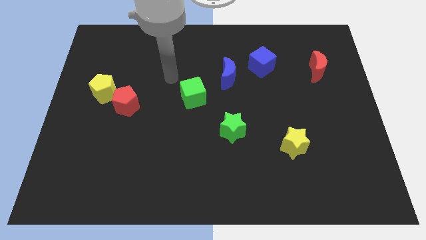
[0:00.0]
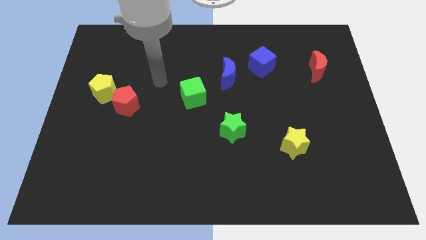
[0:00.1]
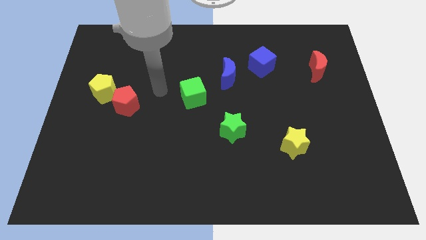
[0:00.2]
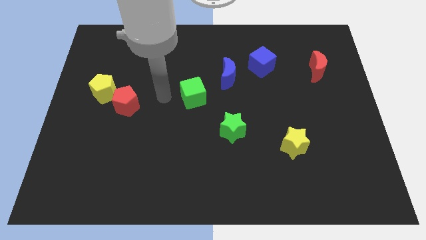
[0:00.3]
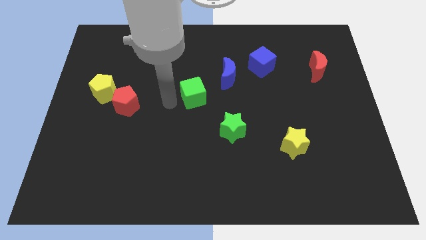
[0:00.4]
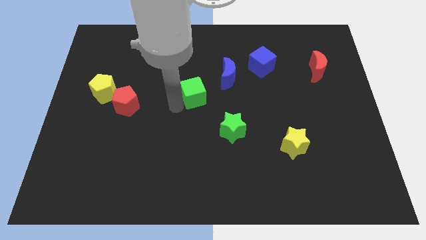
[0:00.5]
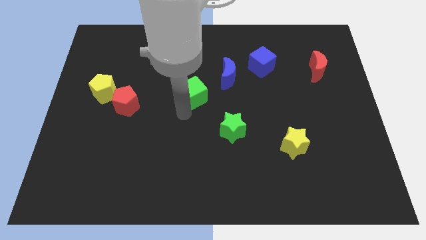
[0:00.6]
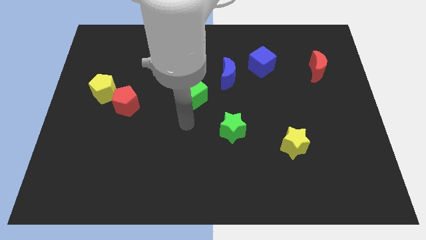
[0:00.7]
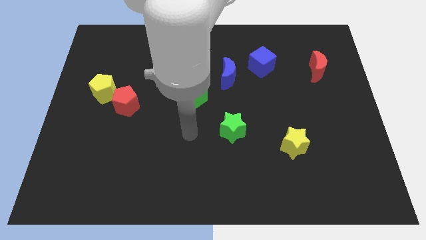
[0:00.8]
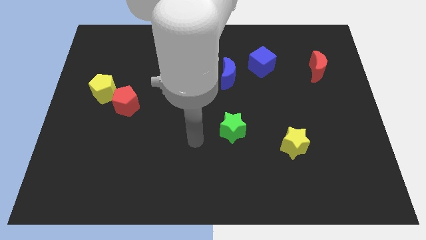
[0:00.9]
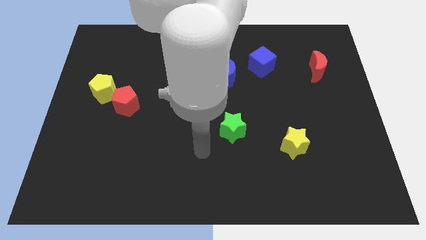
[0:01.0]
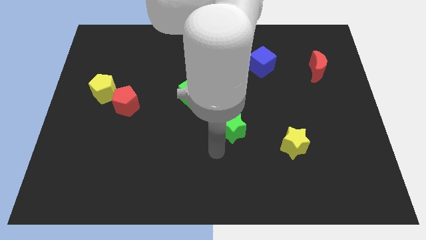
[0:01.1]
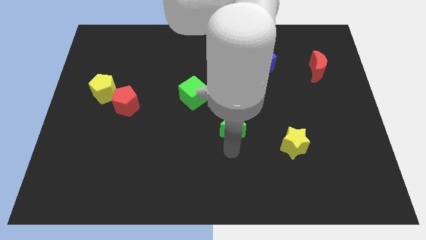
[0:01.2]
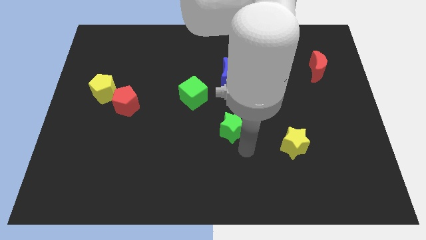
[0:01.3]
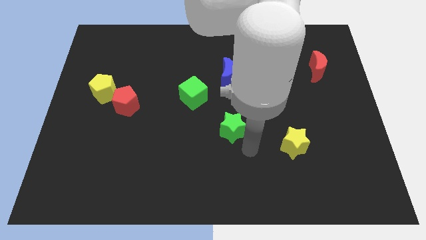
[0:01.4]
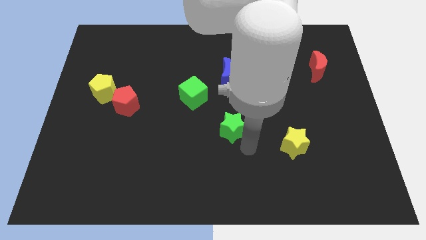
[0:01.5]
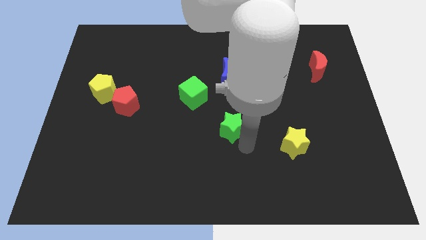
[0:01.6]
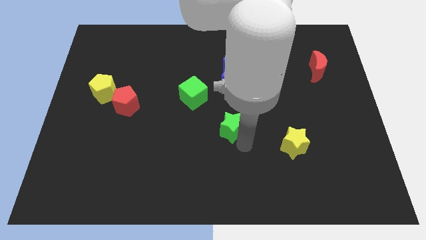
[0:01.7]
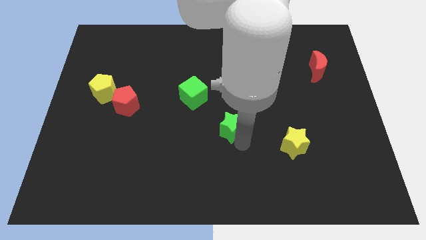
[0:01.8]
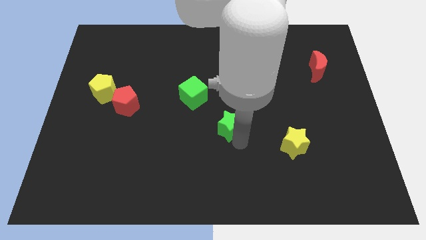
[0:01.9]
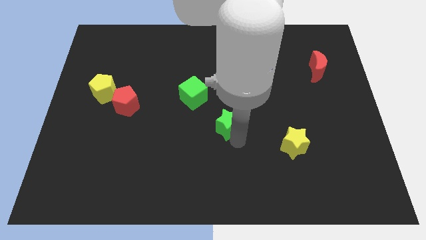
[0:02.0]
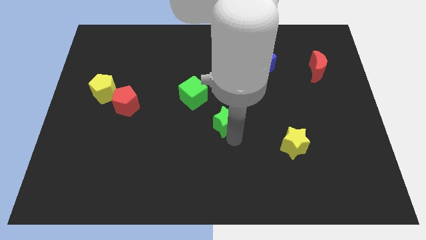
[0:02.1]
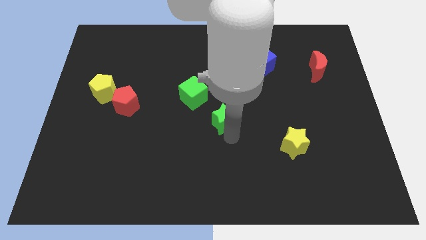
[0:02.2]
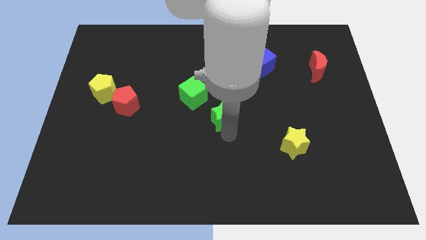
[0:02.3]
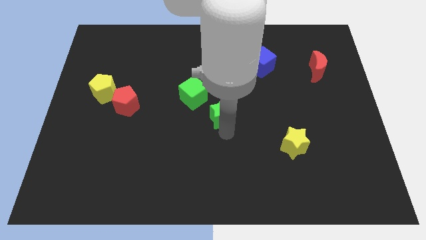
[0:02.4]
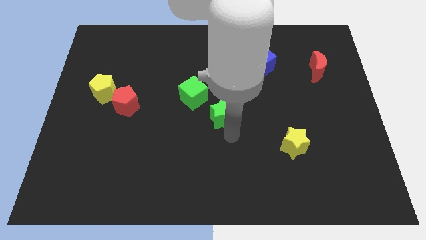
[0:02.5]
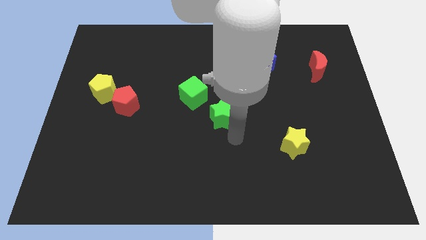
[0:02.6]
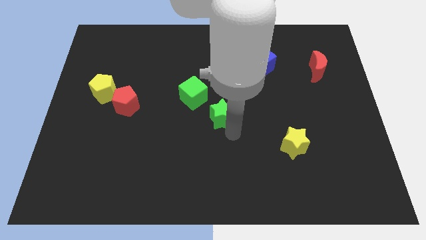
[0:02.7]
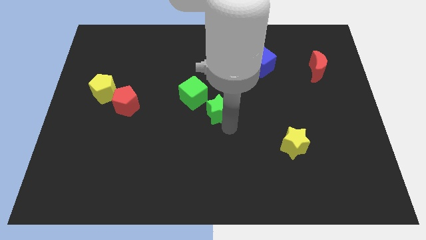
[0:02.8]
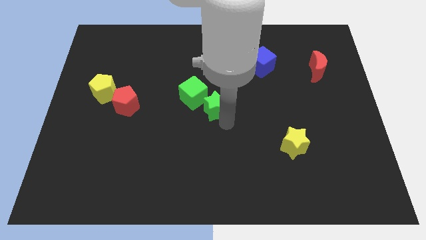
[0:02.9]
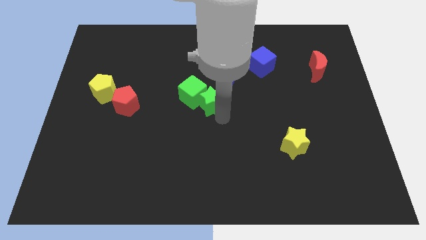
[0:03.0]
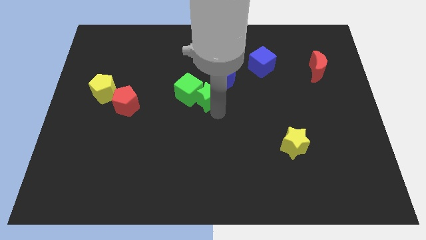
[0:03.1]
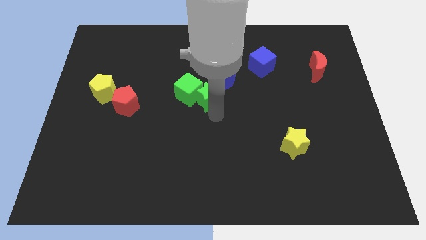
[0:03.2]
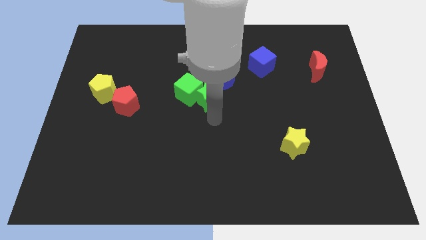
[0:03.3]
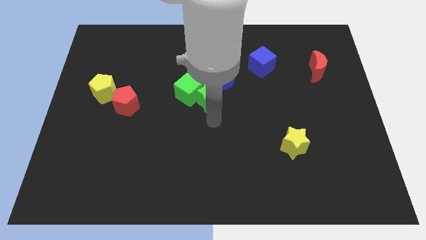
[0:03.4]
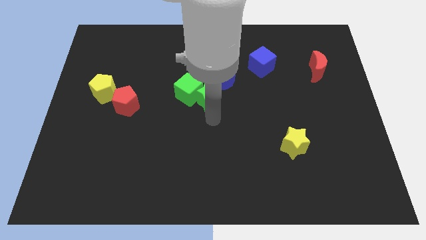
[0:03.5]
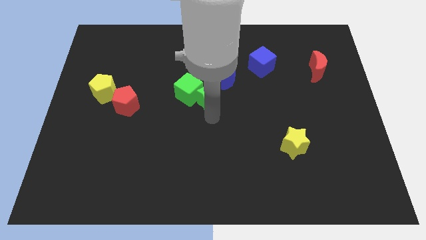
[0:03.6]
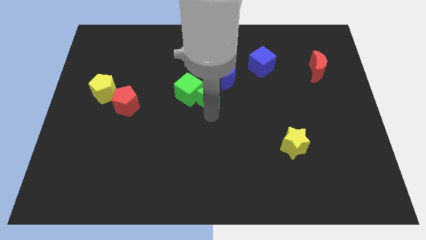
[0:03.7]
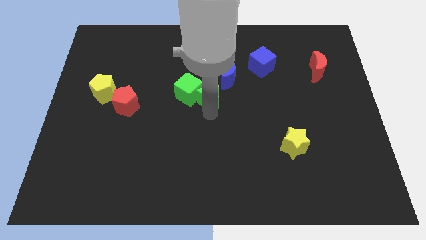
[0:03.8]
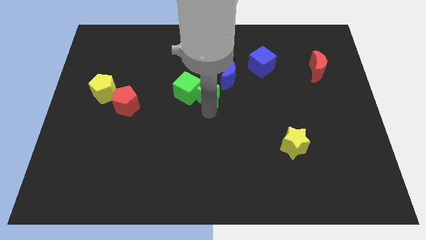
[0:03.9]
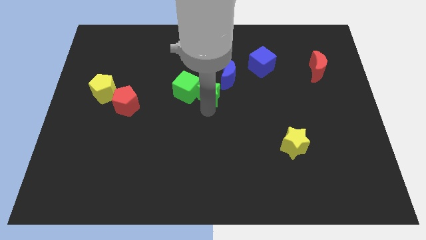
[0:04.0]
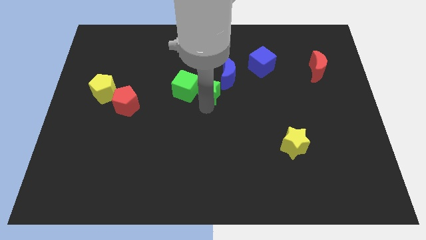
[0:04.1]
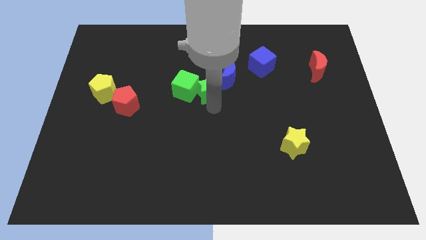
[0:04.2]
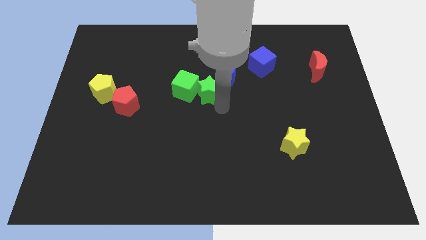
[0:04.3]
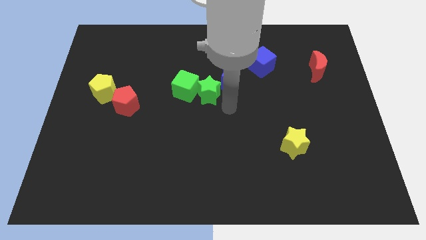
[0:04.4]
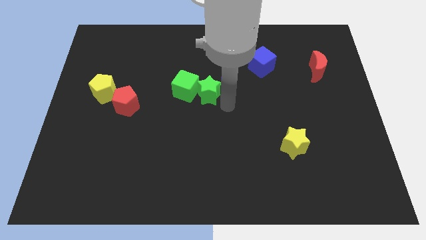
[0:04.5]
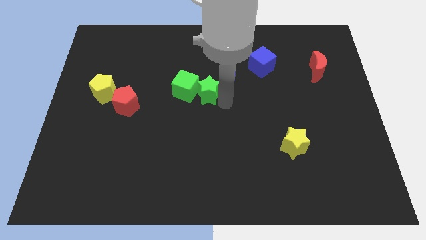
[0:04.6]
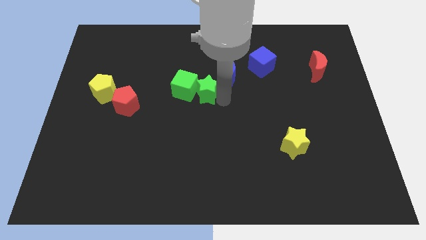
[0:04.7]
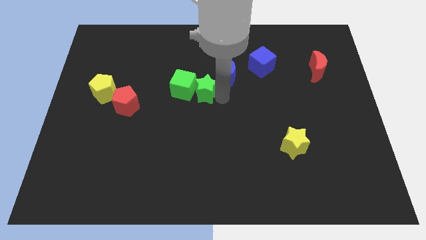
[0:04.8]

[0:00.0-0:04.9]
put the green star just left of the blue moon

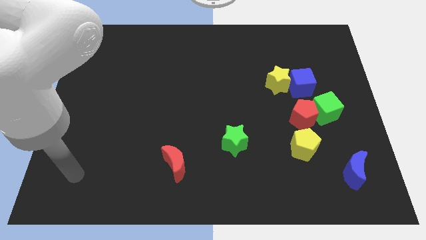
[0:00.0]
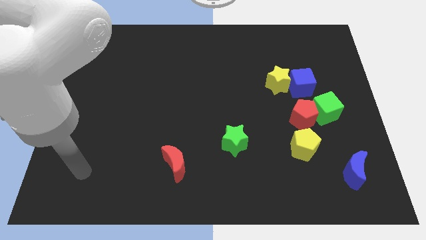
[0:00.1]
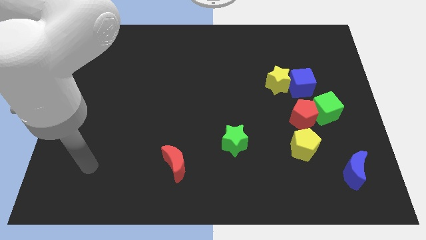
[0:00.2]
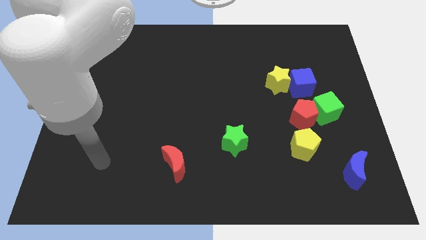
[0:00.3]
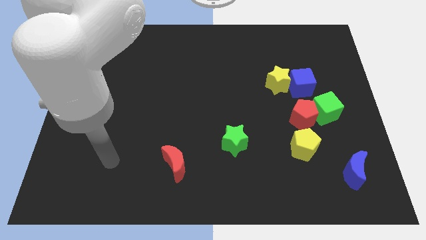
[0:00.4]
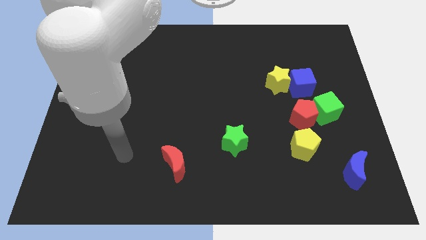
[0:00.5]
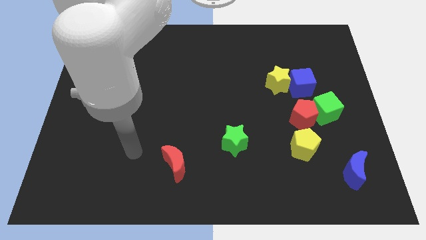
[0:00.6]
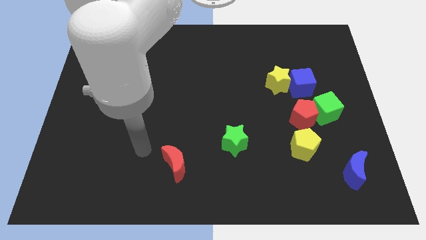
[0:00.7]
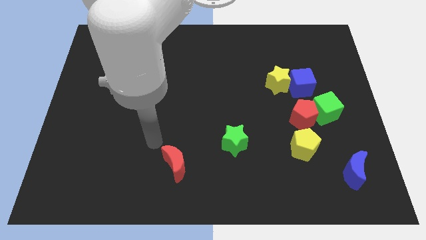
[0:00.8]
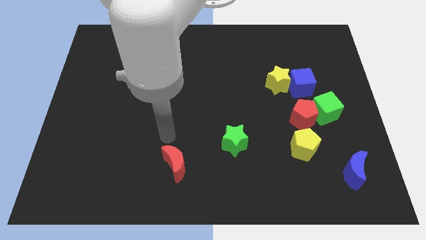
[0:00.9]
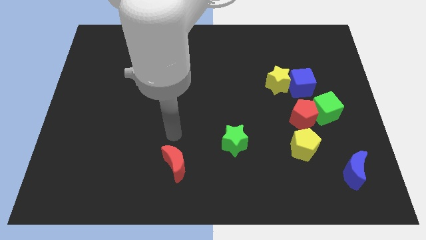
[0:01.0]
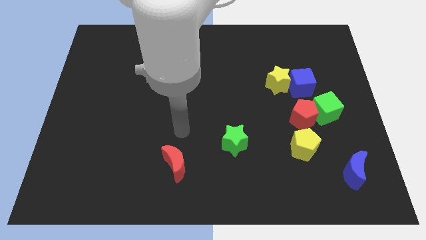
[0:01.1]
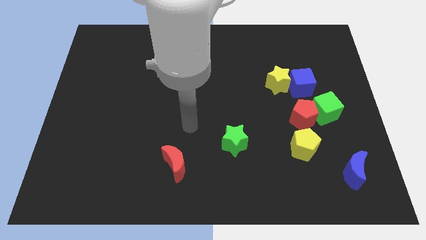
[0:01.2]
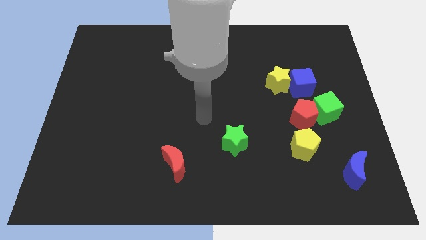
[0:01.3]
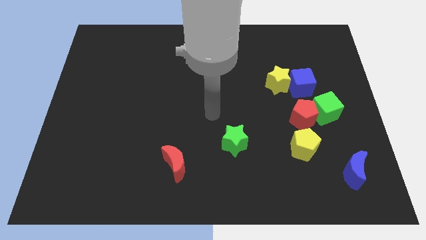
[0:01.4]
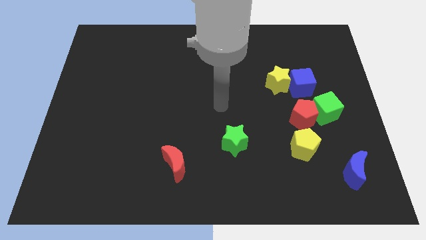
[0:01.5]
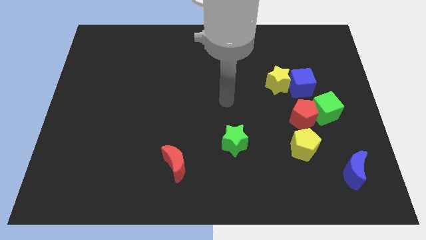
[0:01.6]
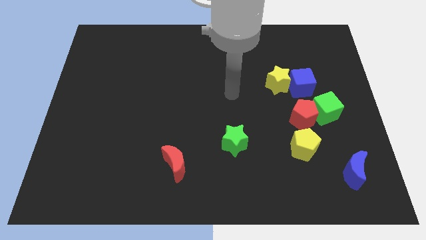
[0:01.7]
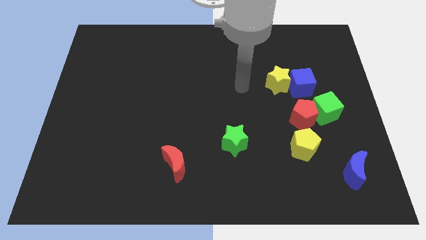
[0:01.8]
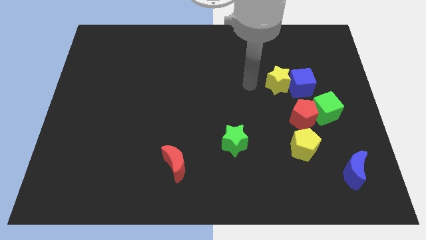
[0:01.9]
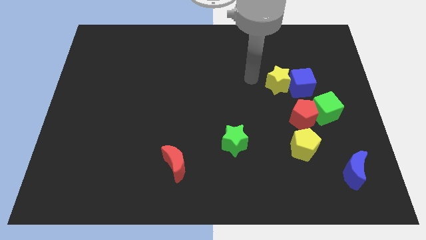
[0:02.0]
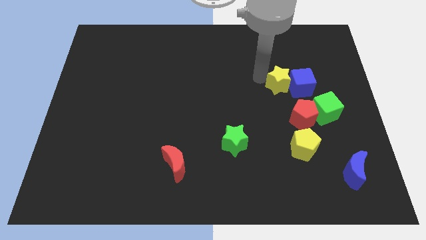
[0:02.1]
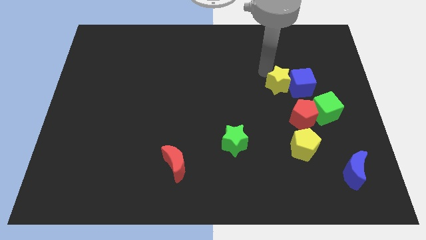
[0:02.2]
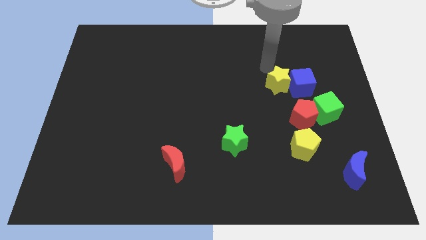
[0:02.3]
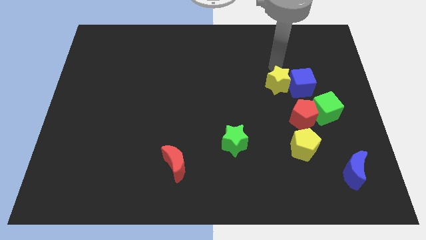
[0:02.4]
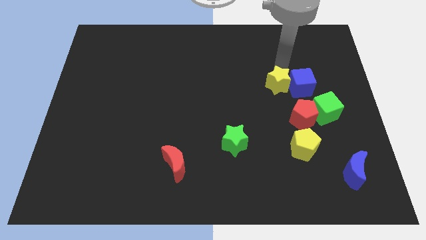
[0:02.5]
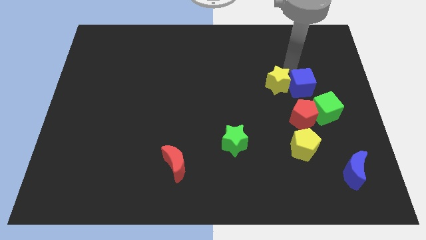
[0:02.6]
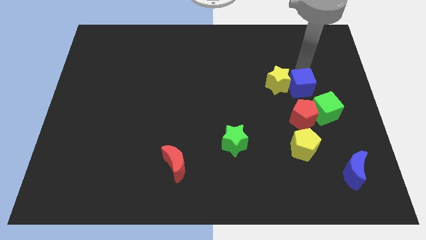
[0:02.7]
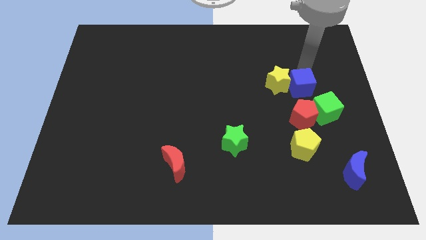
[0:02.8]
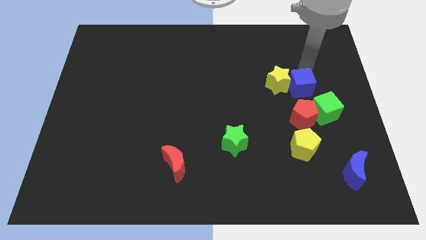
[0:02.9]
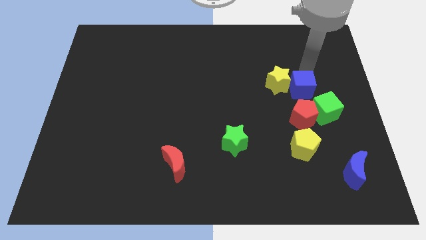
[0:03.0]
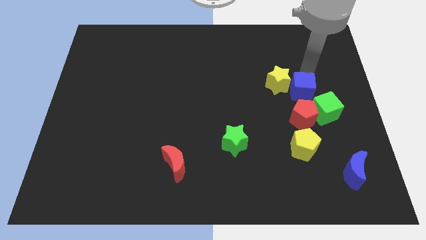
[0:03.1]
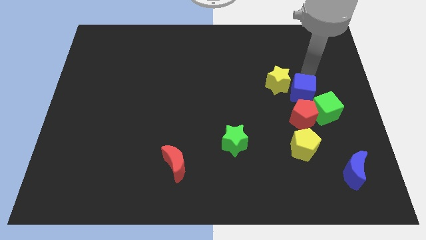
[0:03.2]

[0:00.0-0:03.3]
move the blue cube above the yellow pentagon
